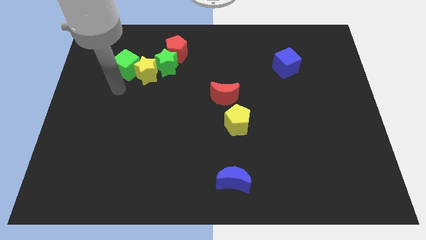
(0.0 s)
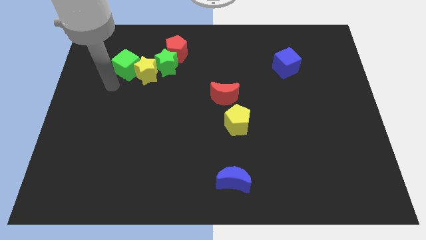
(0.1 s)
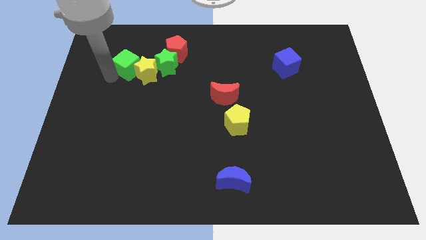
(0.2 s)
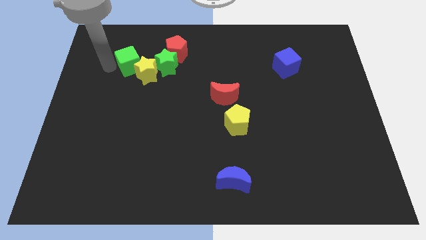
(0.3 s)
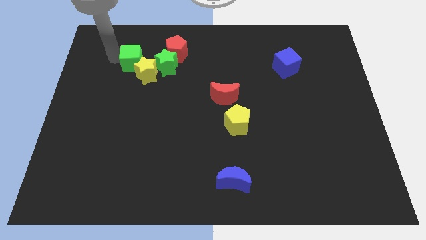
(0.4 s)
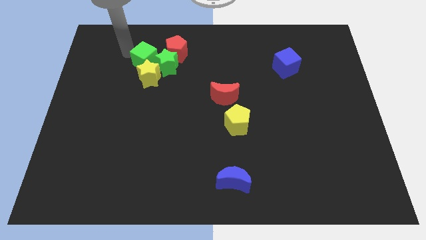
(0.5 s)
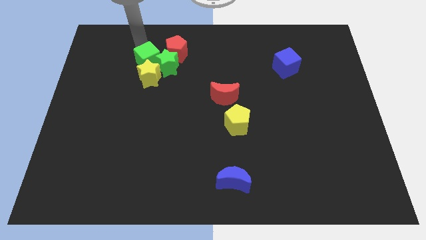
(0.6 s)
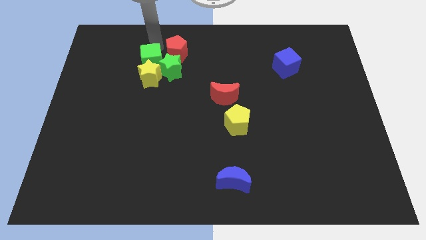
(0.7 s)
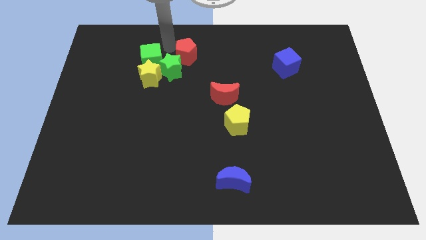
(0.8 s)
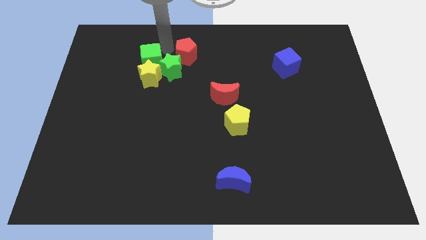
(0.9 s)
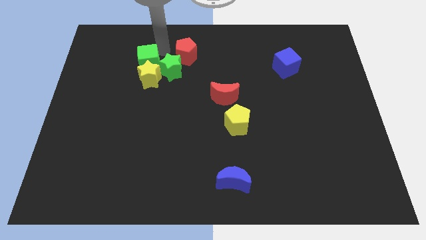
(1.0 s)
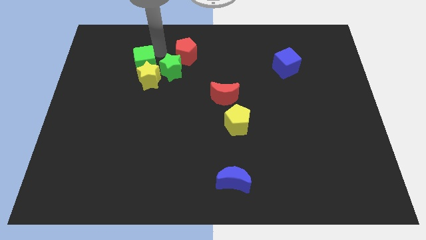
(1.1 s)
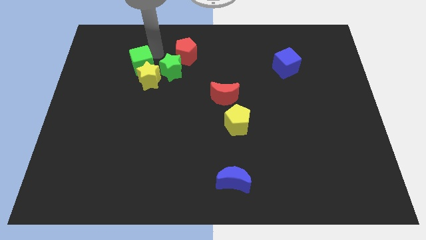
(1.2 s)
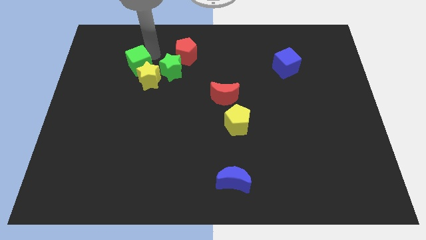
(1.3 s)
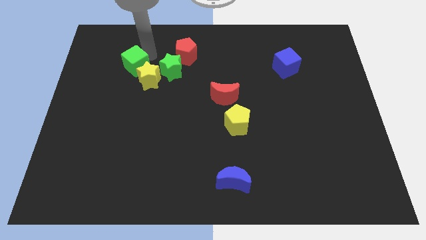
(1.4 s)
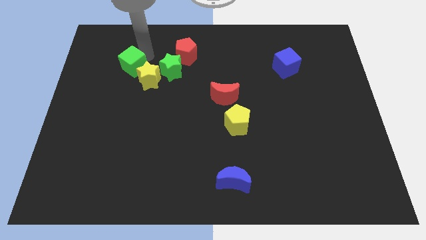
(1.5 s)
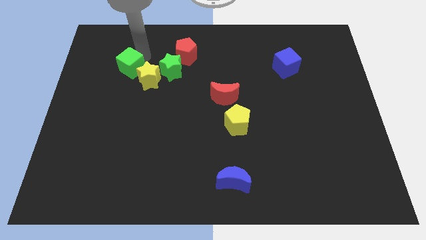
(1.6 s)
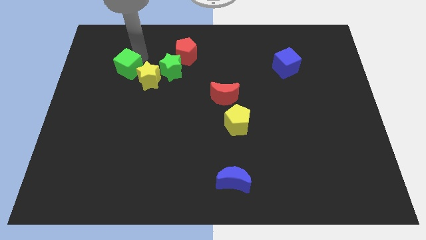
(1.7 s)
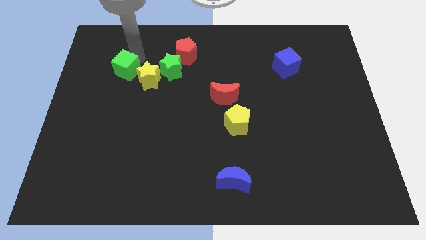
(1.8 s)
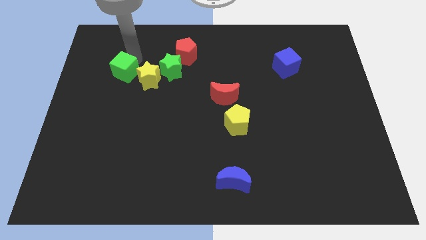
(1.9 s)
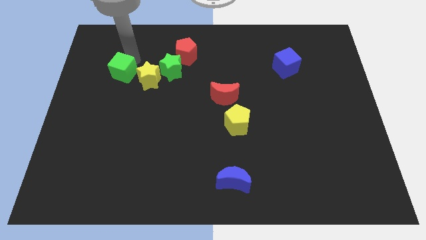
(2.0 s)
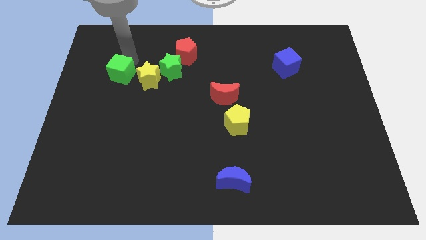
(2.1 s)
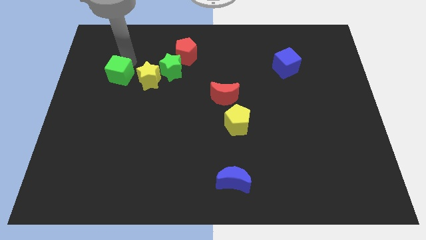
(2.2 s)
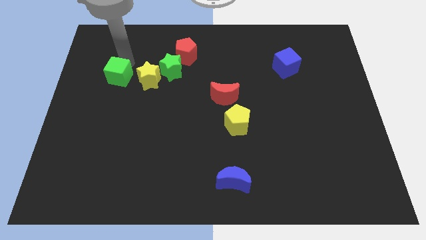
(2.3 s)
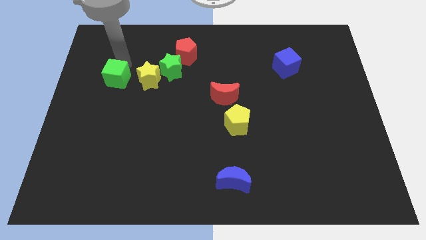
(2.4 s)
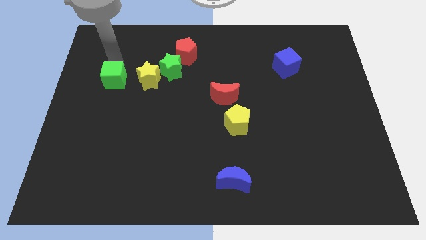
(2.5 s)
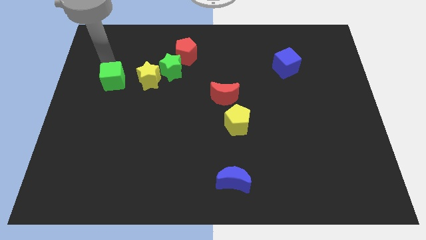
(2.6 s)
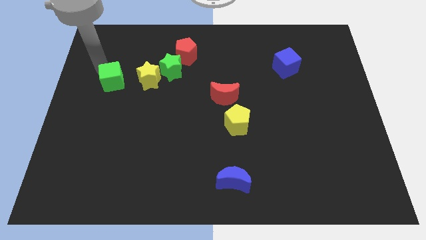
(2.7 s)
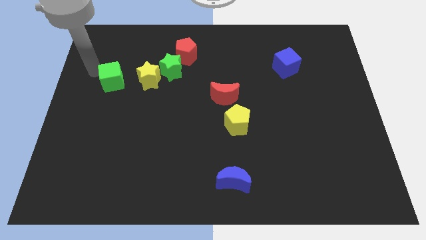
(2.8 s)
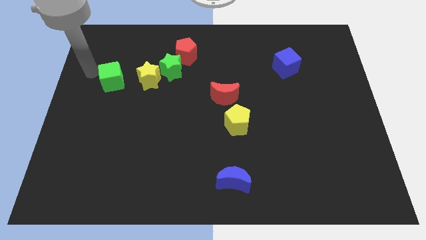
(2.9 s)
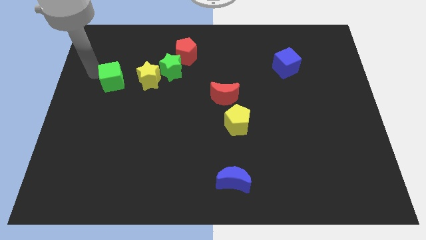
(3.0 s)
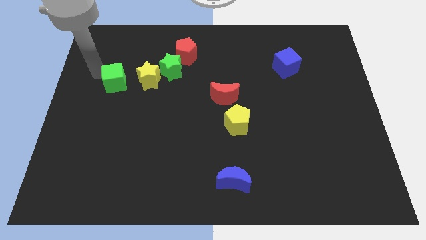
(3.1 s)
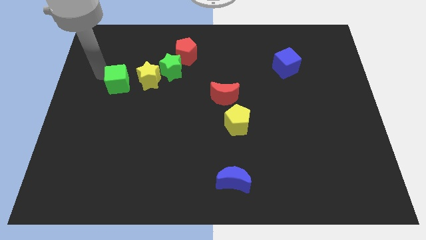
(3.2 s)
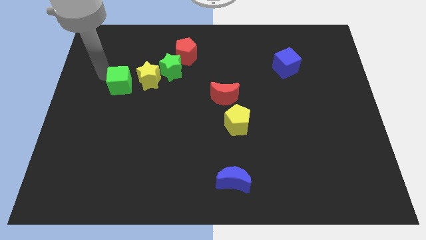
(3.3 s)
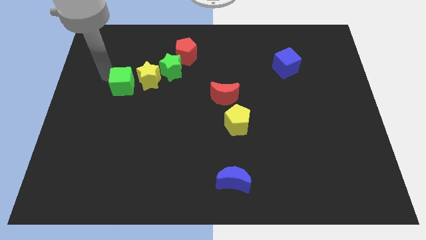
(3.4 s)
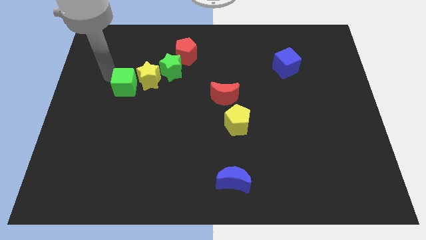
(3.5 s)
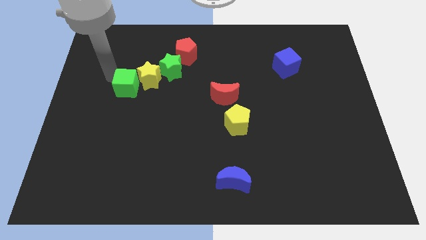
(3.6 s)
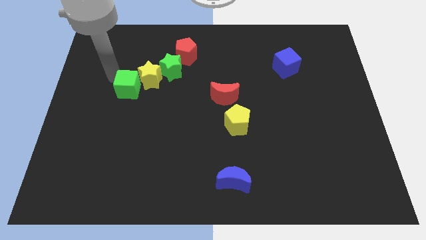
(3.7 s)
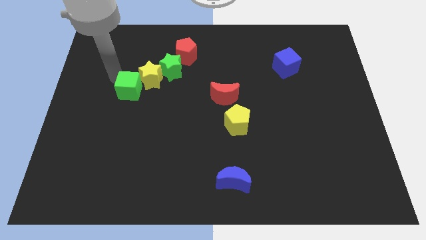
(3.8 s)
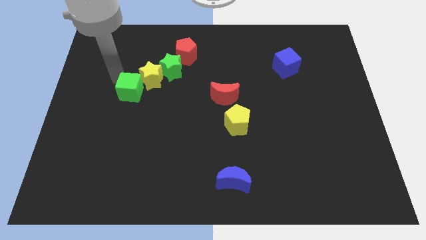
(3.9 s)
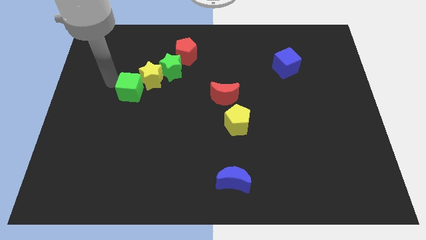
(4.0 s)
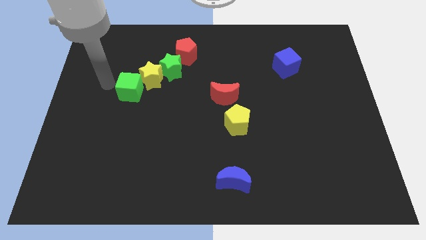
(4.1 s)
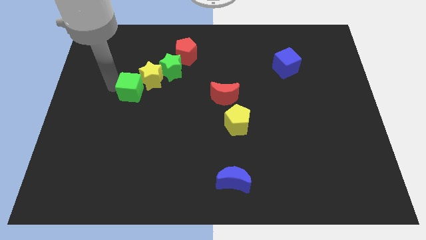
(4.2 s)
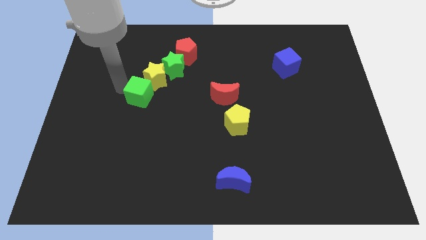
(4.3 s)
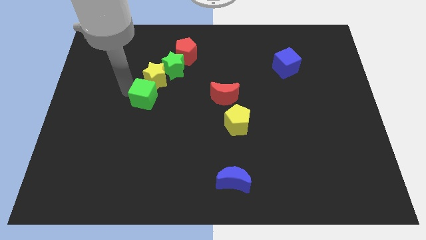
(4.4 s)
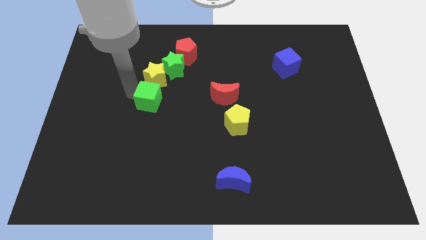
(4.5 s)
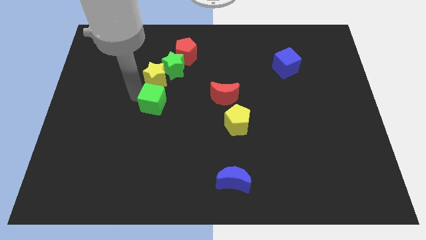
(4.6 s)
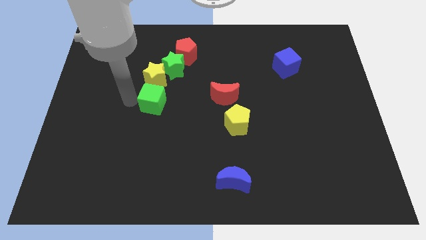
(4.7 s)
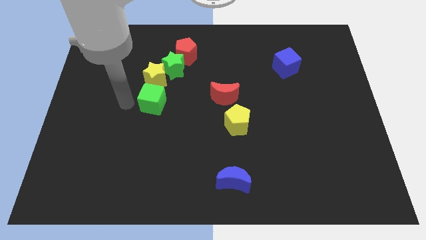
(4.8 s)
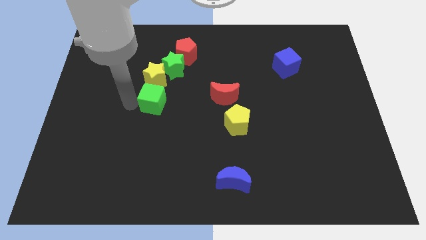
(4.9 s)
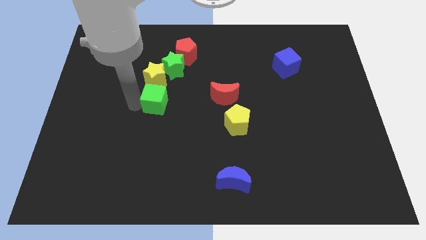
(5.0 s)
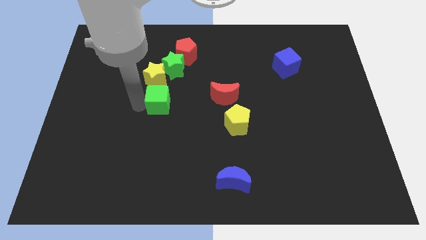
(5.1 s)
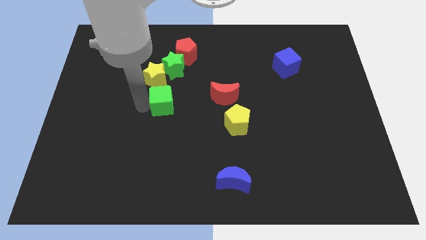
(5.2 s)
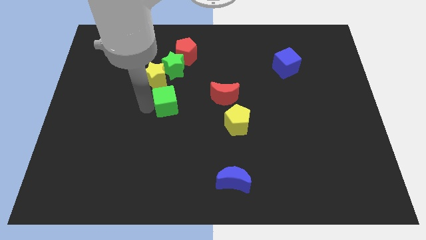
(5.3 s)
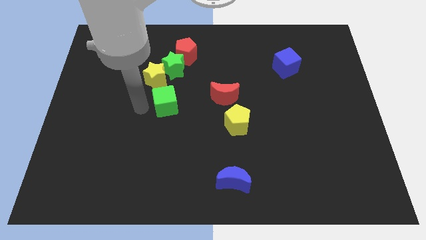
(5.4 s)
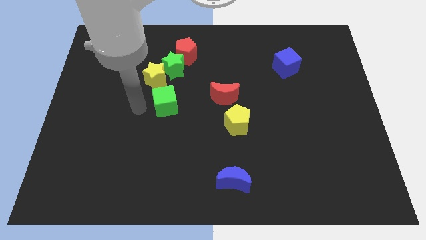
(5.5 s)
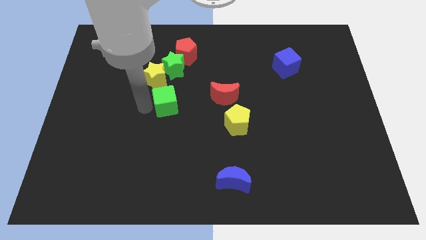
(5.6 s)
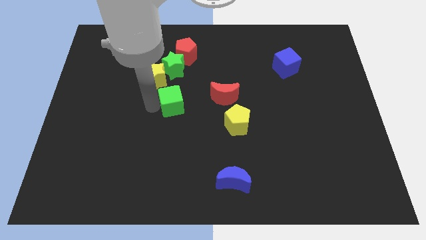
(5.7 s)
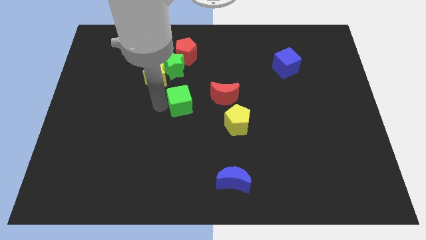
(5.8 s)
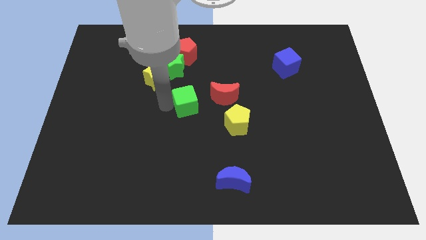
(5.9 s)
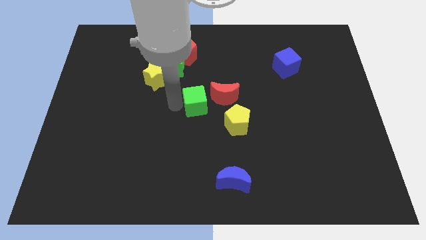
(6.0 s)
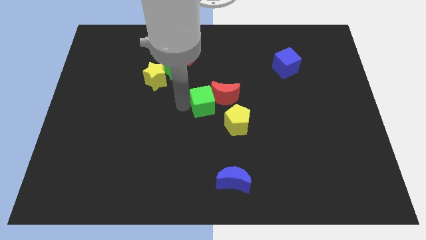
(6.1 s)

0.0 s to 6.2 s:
push the green cube to the red moon

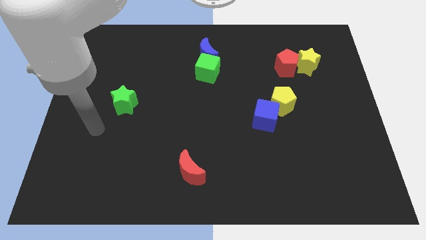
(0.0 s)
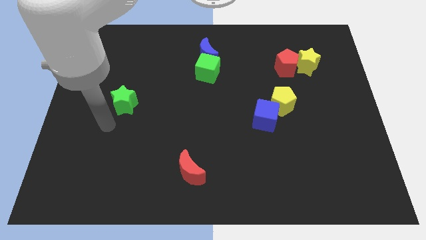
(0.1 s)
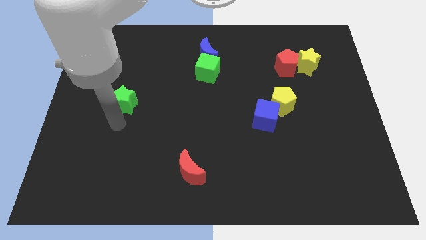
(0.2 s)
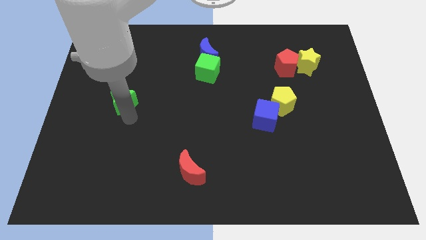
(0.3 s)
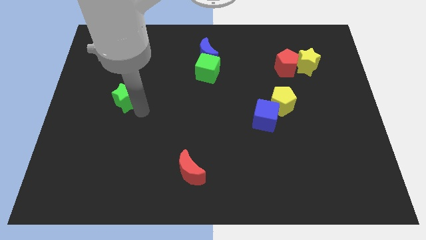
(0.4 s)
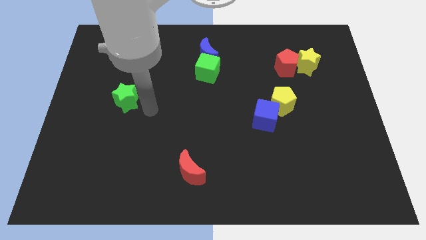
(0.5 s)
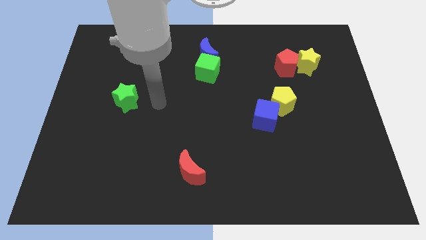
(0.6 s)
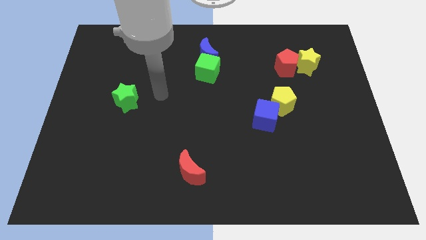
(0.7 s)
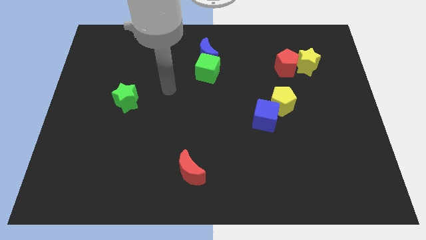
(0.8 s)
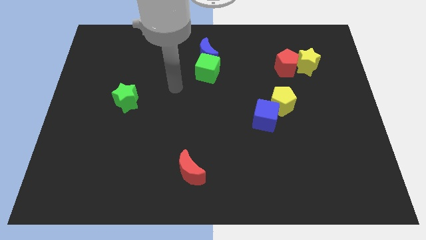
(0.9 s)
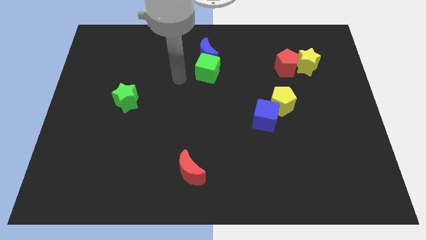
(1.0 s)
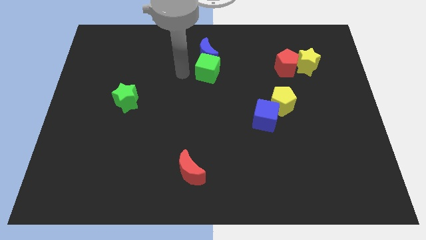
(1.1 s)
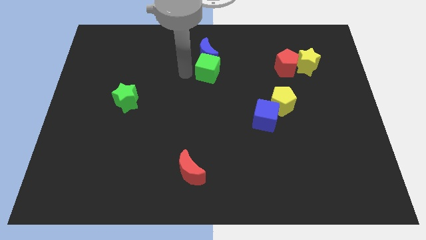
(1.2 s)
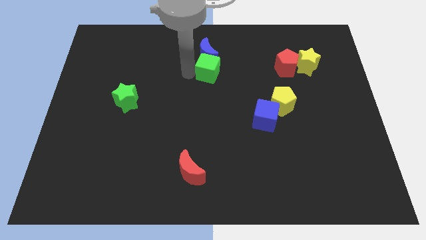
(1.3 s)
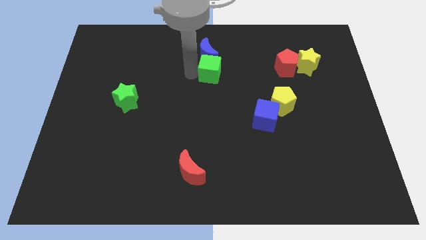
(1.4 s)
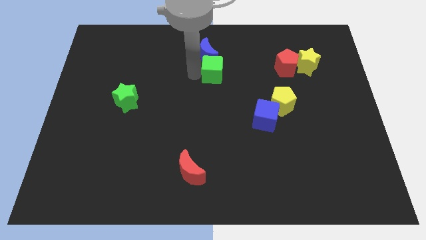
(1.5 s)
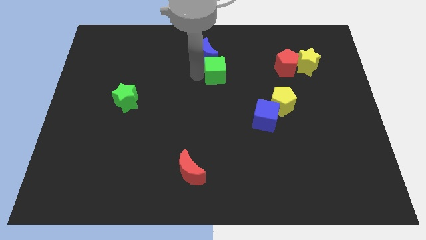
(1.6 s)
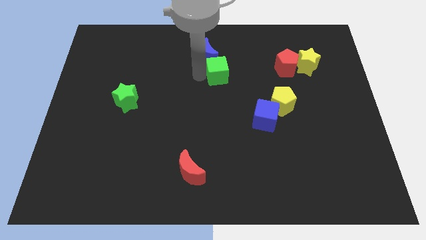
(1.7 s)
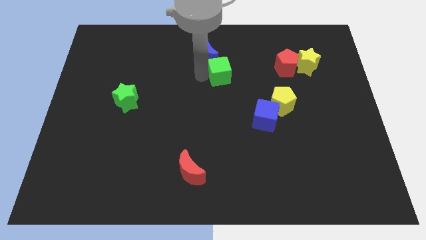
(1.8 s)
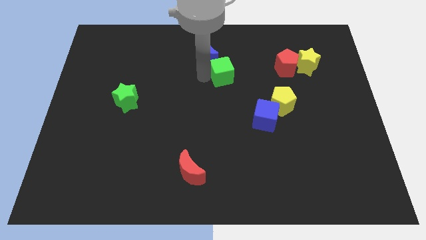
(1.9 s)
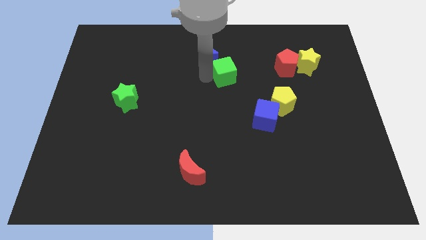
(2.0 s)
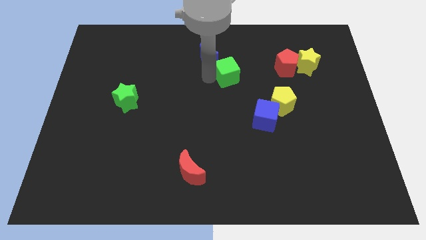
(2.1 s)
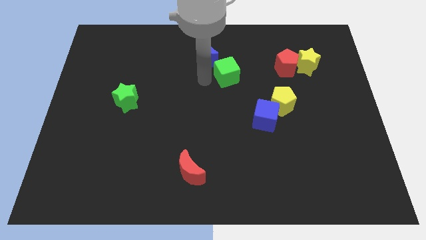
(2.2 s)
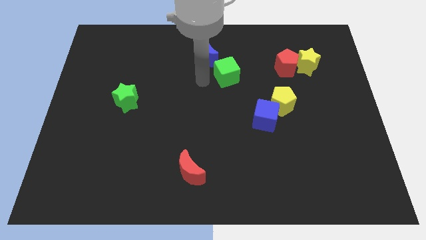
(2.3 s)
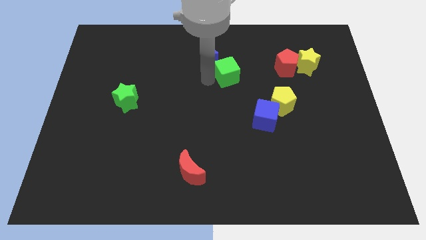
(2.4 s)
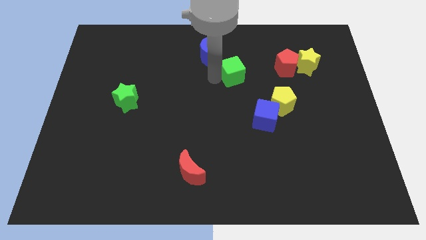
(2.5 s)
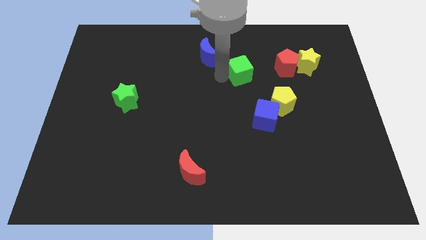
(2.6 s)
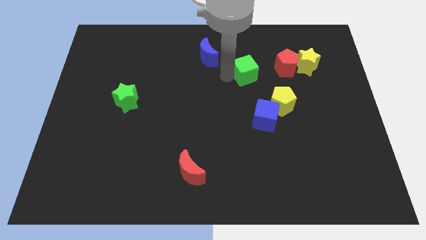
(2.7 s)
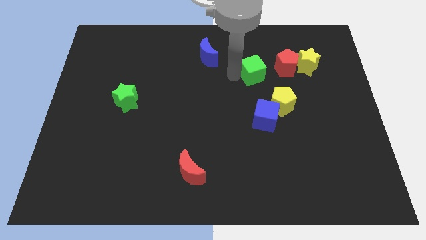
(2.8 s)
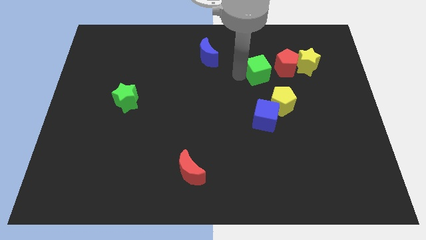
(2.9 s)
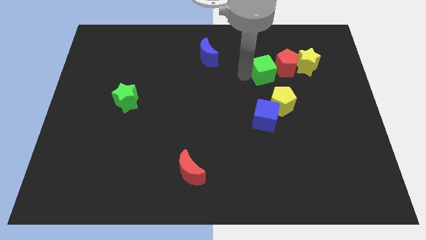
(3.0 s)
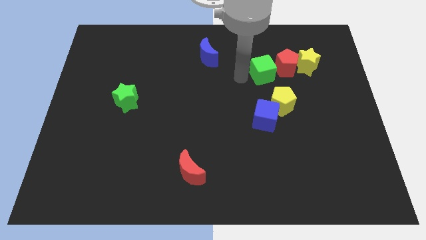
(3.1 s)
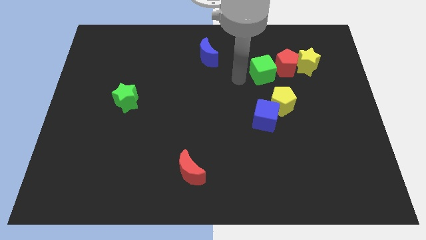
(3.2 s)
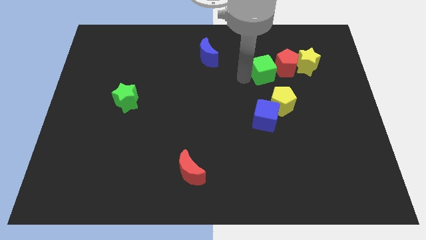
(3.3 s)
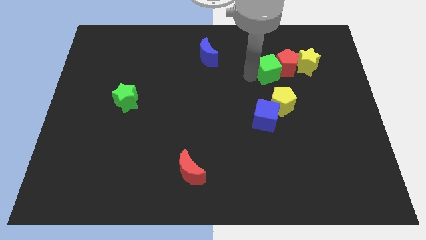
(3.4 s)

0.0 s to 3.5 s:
push the green cube towards the red pentagon
